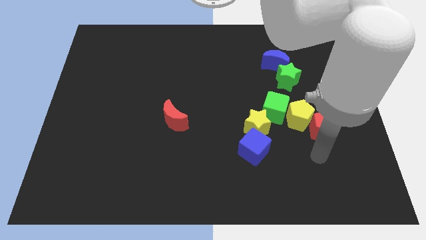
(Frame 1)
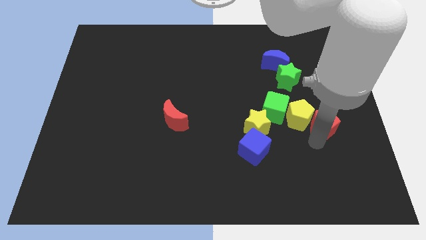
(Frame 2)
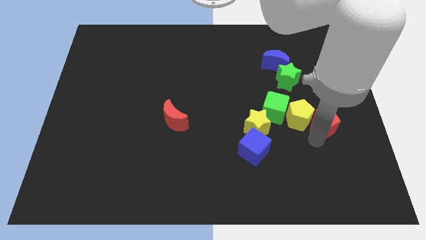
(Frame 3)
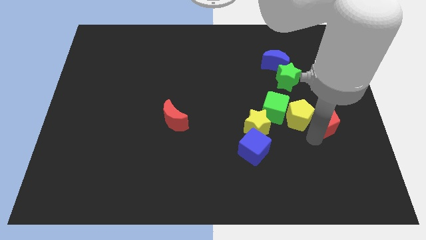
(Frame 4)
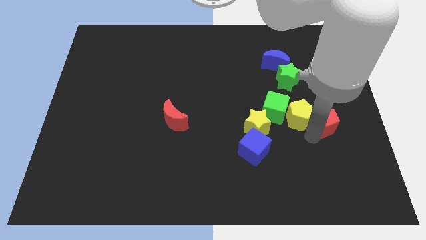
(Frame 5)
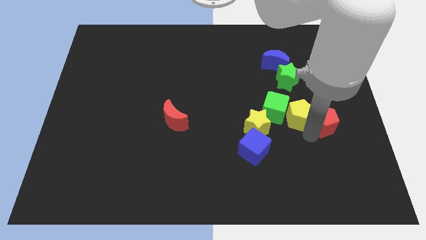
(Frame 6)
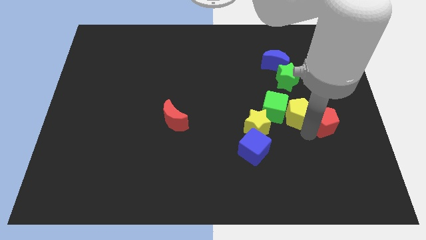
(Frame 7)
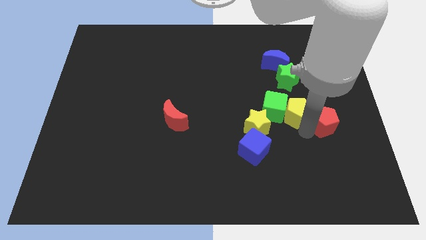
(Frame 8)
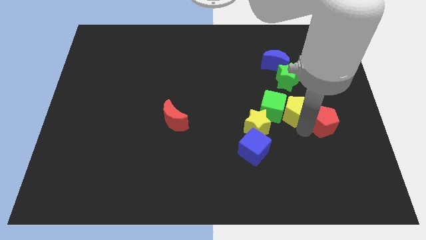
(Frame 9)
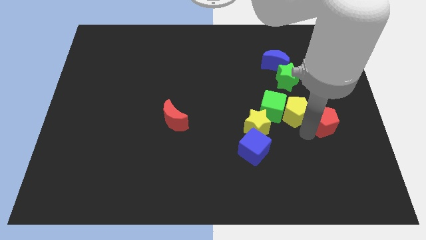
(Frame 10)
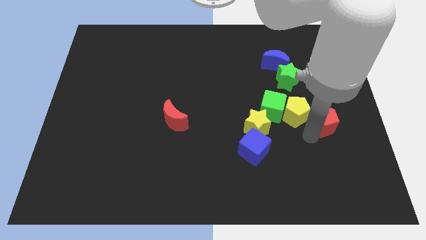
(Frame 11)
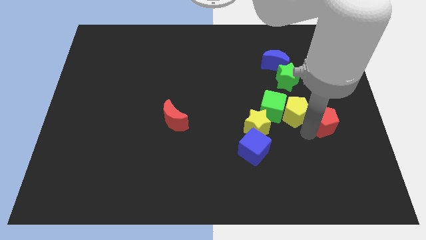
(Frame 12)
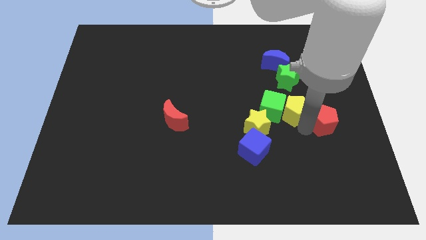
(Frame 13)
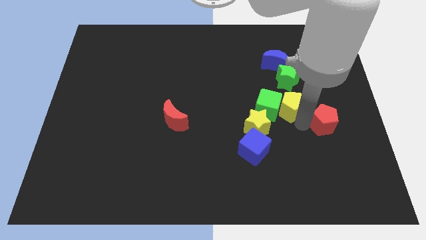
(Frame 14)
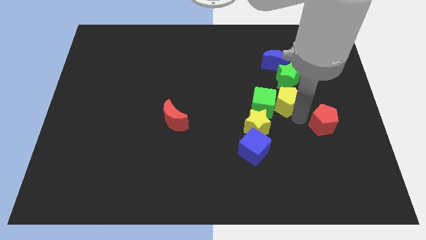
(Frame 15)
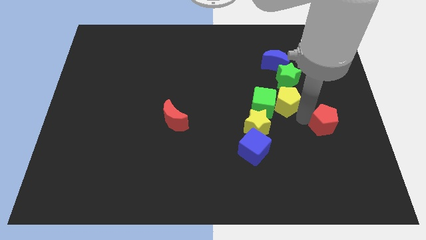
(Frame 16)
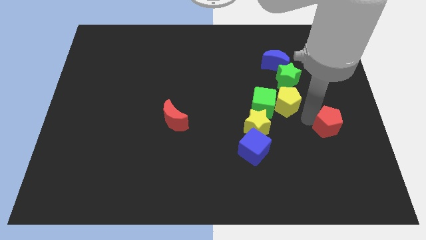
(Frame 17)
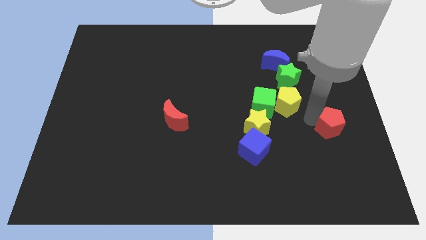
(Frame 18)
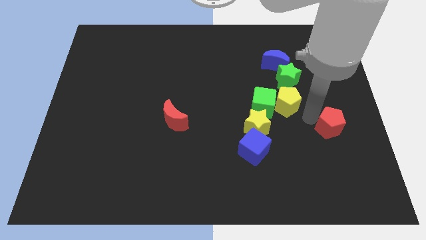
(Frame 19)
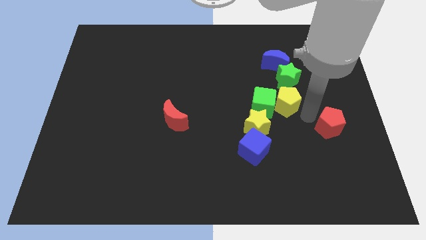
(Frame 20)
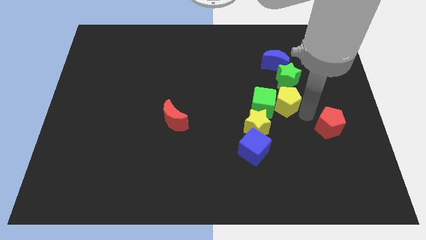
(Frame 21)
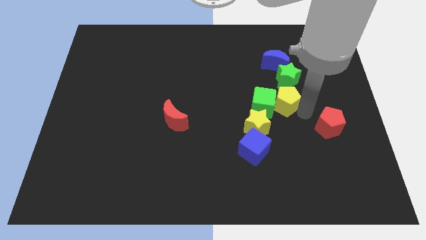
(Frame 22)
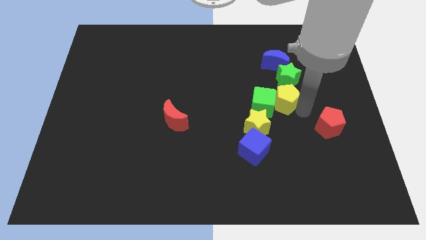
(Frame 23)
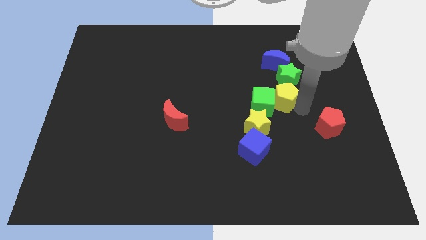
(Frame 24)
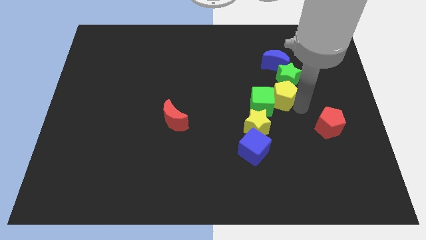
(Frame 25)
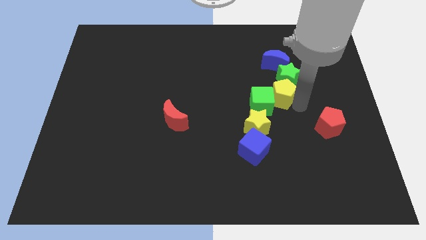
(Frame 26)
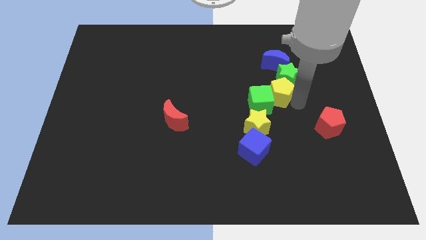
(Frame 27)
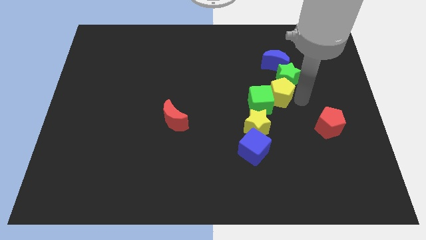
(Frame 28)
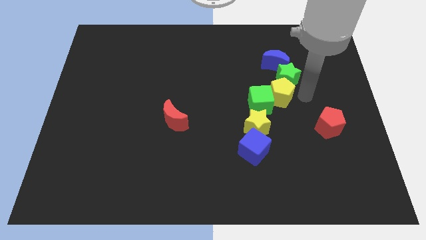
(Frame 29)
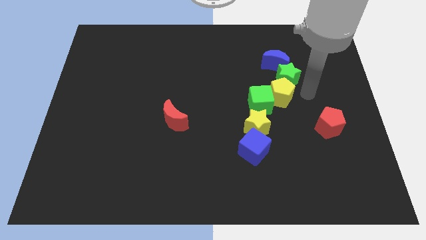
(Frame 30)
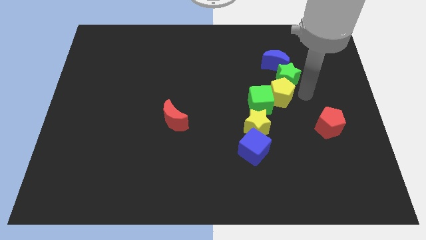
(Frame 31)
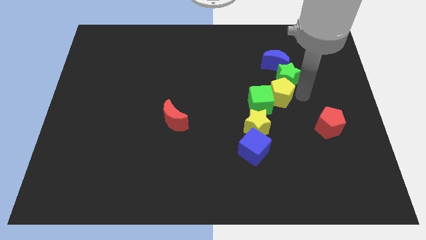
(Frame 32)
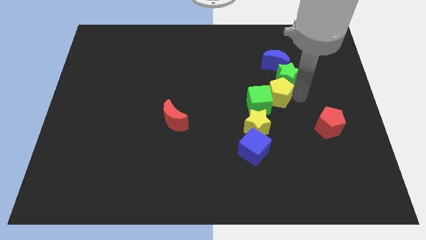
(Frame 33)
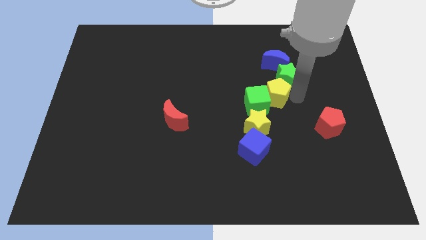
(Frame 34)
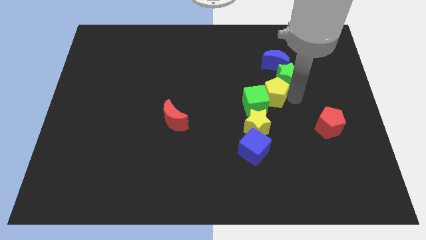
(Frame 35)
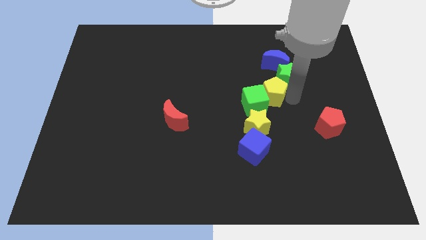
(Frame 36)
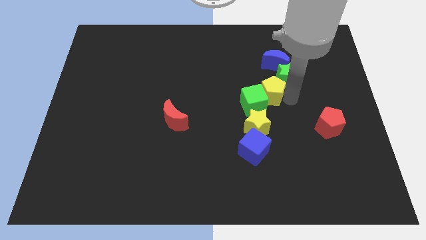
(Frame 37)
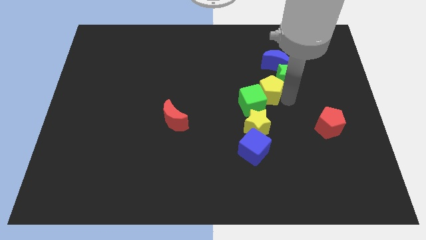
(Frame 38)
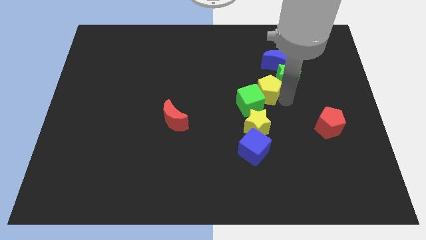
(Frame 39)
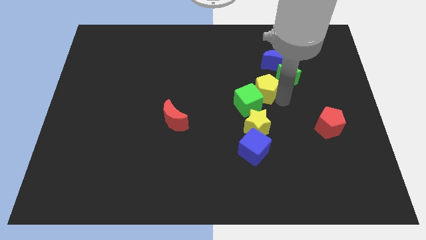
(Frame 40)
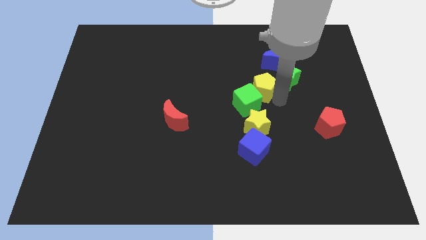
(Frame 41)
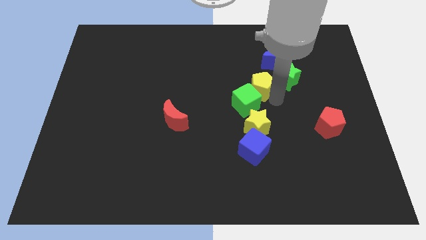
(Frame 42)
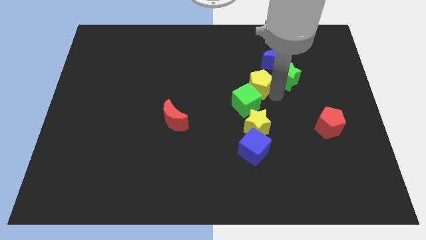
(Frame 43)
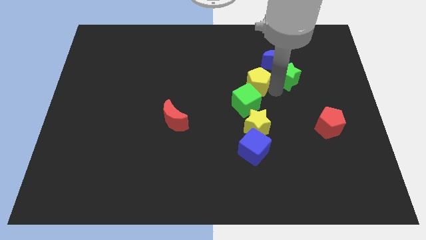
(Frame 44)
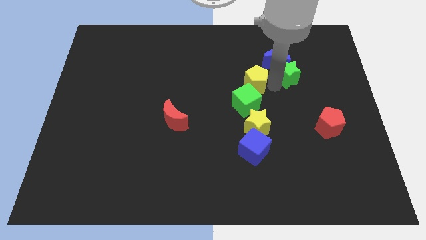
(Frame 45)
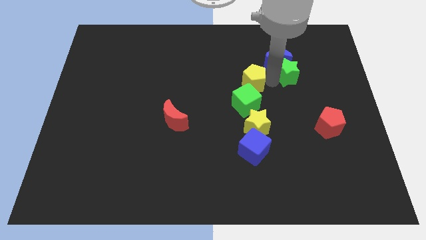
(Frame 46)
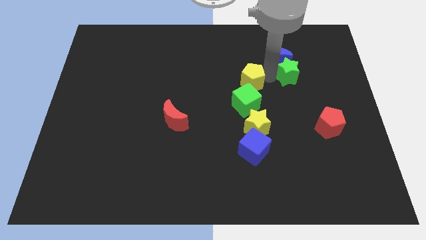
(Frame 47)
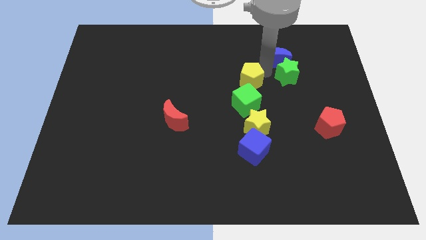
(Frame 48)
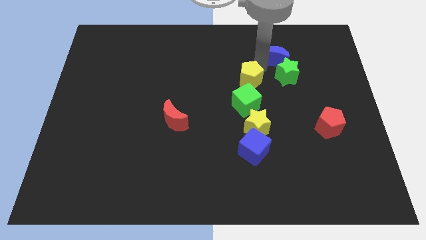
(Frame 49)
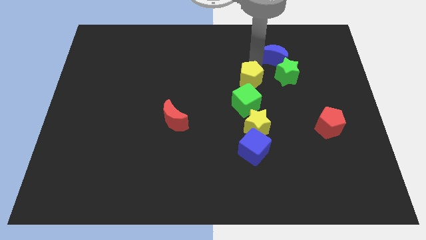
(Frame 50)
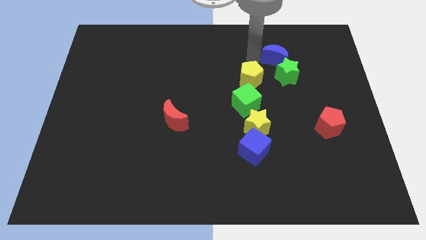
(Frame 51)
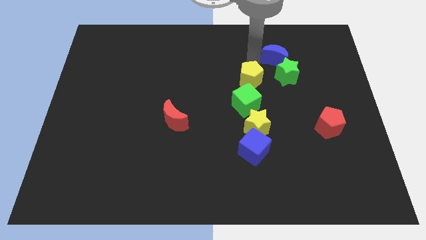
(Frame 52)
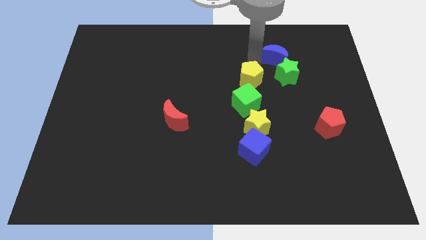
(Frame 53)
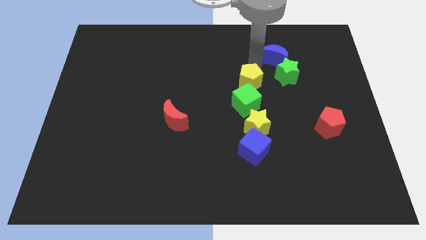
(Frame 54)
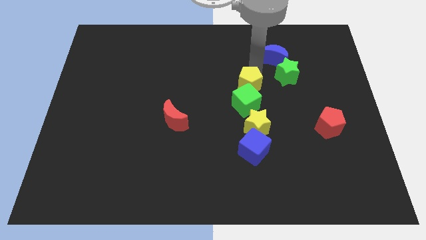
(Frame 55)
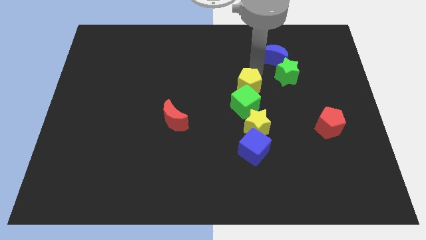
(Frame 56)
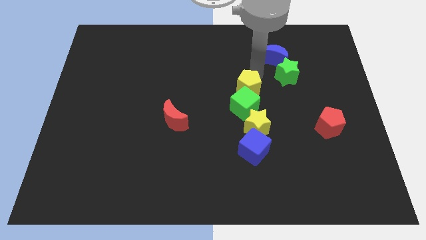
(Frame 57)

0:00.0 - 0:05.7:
push the yellow pentagon a bit left

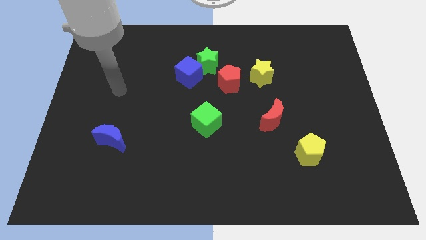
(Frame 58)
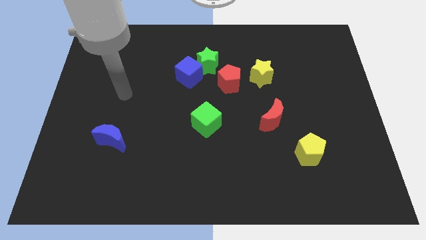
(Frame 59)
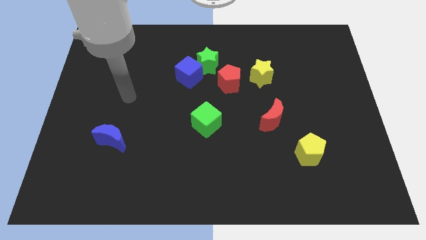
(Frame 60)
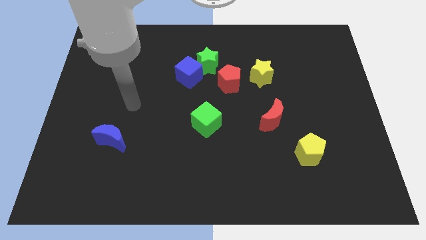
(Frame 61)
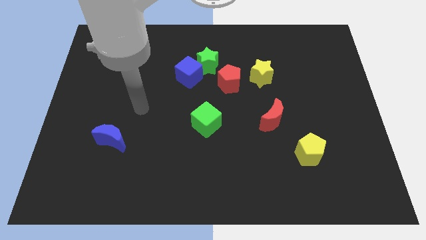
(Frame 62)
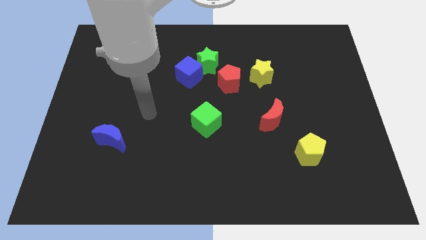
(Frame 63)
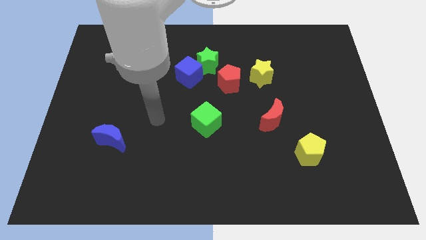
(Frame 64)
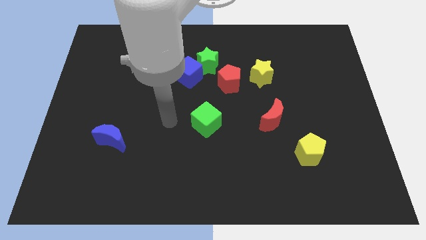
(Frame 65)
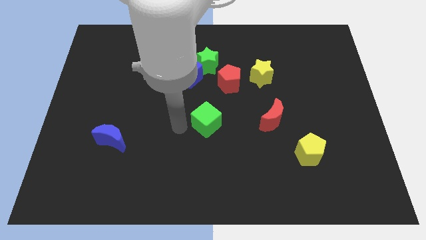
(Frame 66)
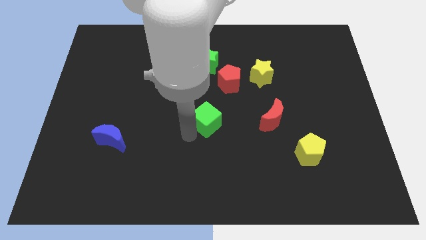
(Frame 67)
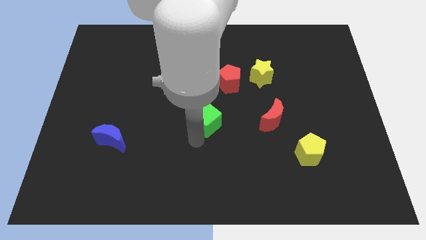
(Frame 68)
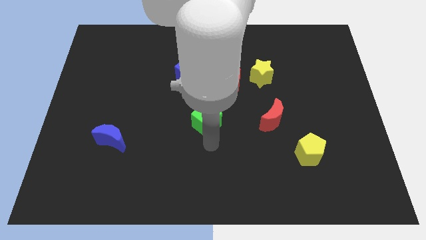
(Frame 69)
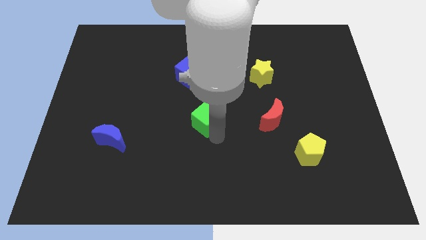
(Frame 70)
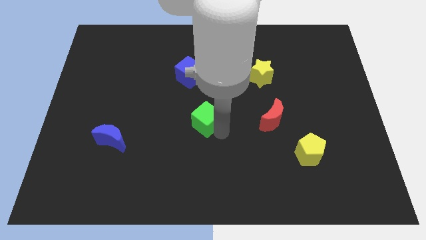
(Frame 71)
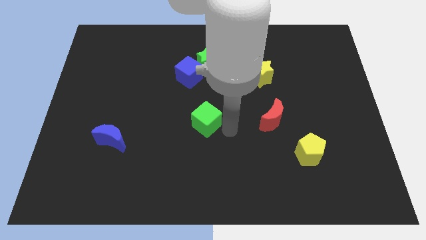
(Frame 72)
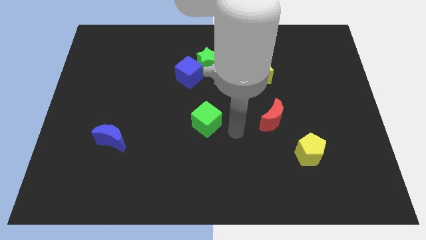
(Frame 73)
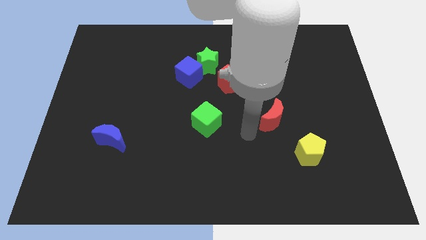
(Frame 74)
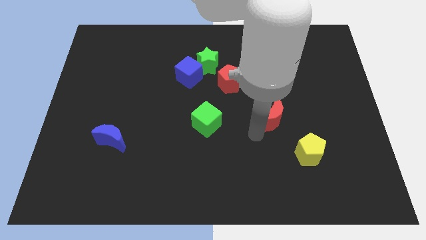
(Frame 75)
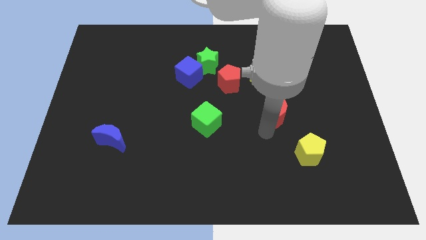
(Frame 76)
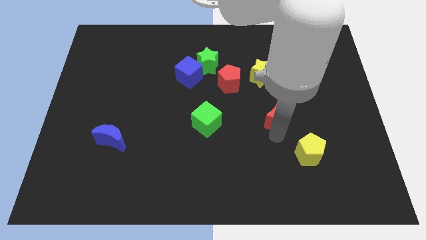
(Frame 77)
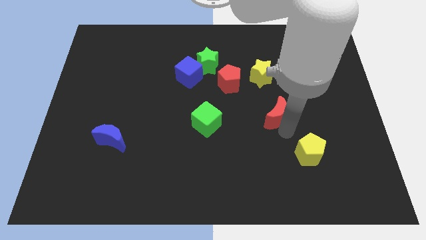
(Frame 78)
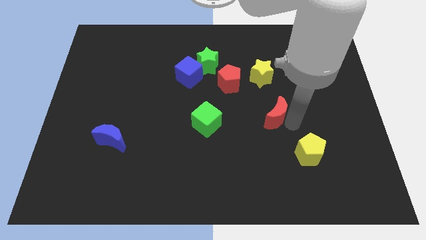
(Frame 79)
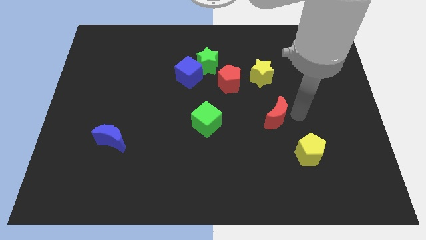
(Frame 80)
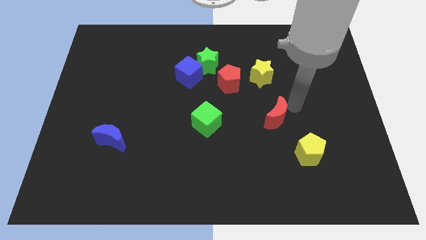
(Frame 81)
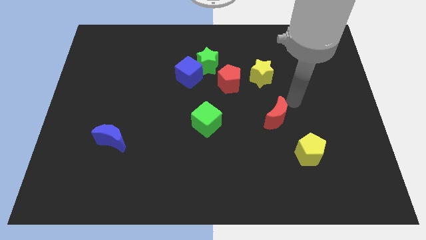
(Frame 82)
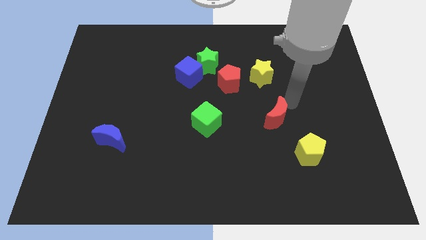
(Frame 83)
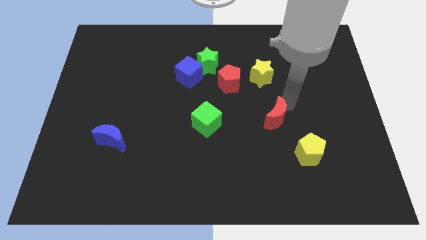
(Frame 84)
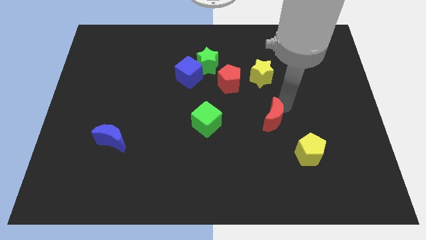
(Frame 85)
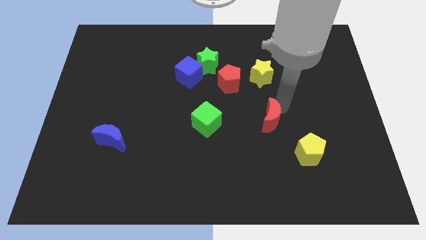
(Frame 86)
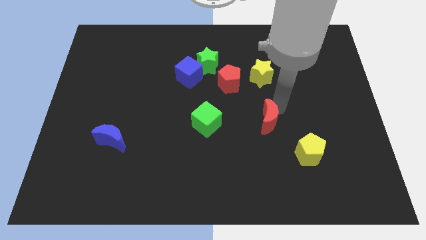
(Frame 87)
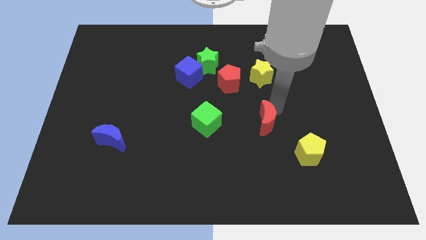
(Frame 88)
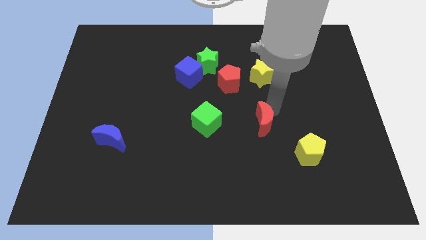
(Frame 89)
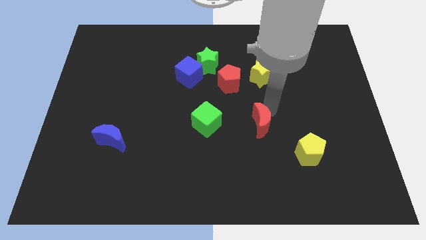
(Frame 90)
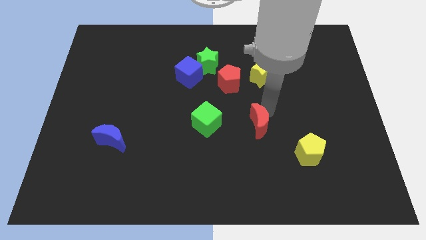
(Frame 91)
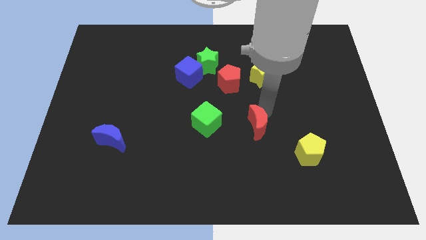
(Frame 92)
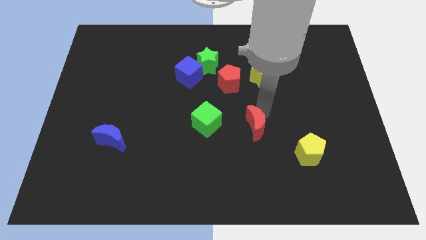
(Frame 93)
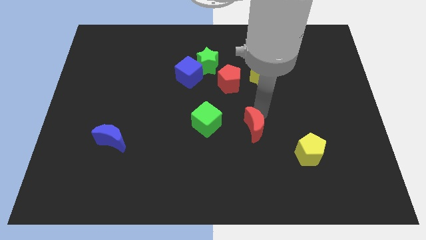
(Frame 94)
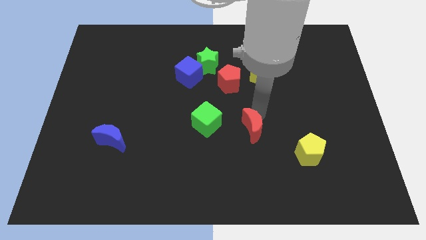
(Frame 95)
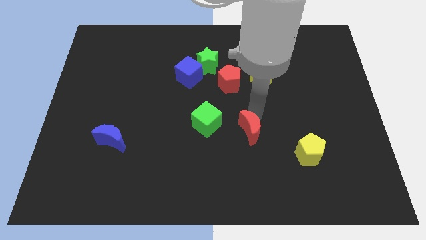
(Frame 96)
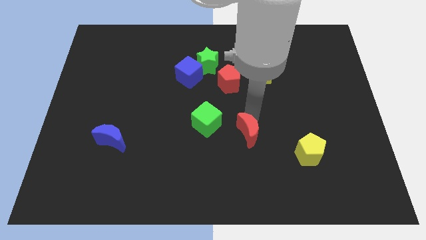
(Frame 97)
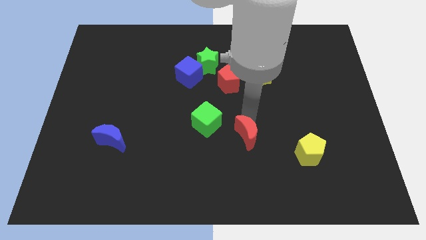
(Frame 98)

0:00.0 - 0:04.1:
slightly slide the red moon downwards and to the left diagonally
